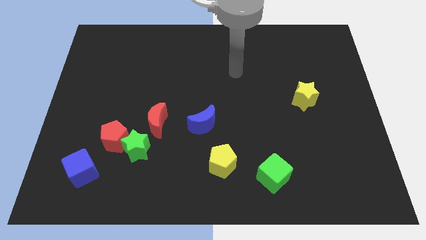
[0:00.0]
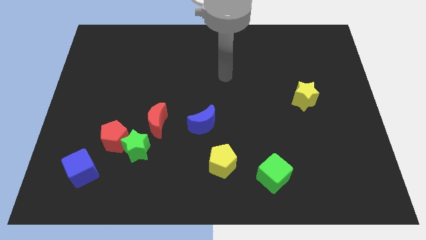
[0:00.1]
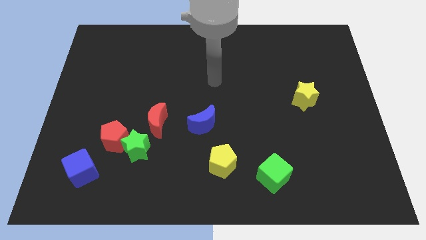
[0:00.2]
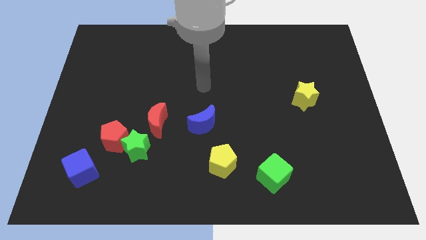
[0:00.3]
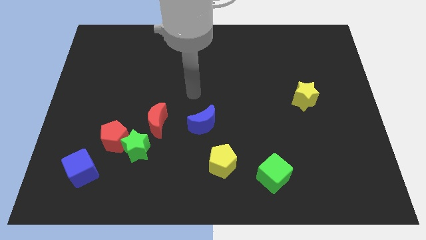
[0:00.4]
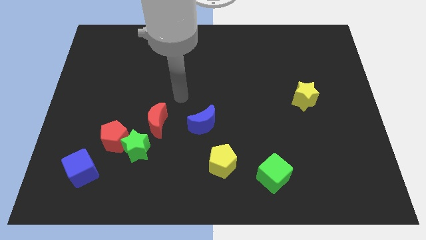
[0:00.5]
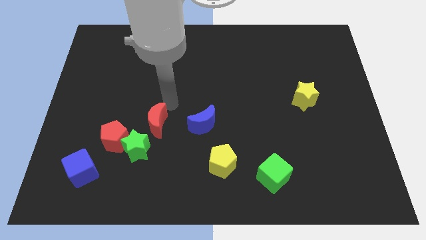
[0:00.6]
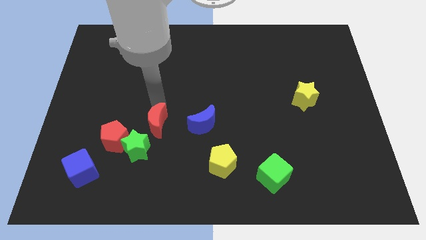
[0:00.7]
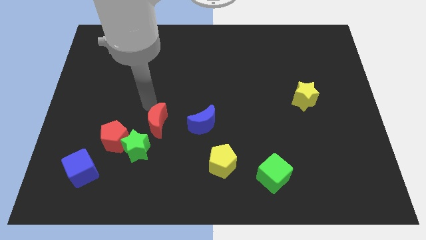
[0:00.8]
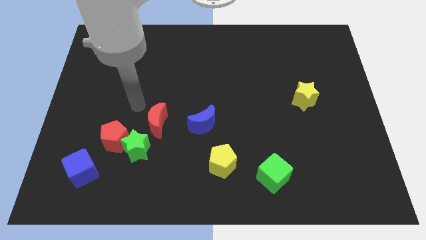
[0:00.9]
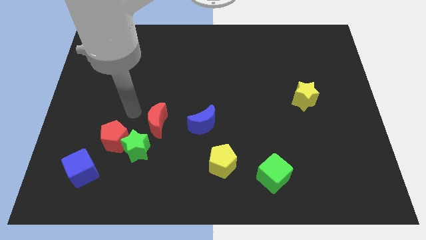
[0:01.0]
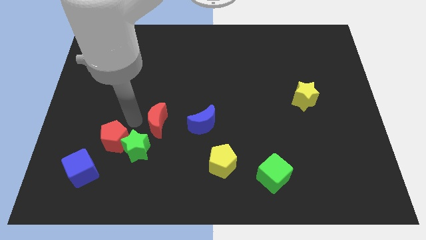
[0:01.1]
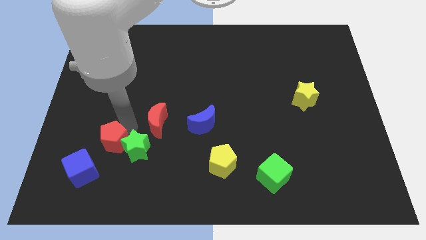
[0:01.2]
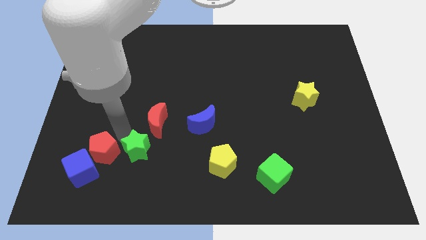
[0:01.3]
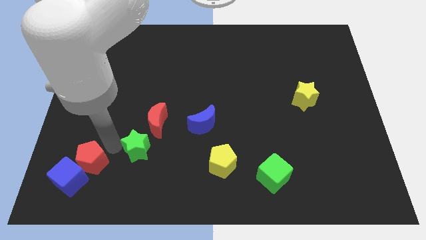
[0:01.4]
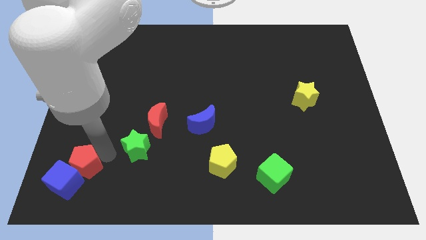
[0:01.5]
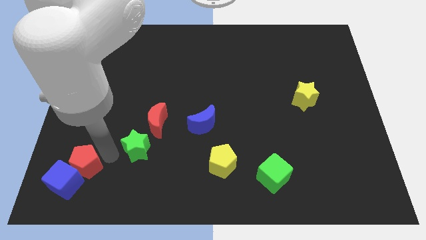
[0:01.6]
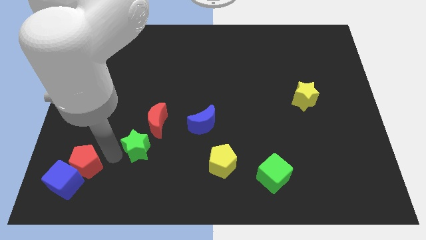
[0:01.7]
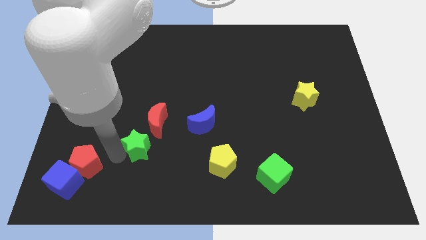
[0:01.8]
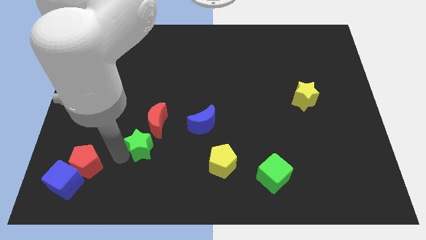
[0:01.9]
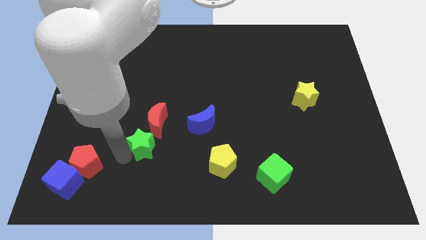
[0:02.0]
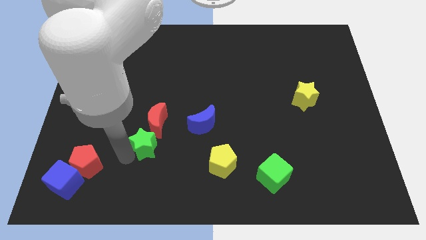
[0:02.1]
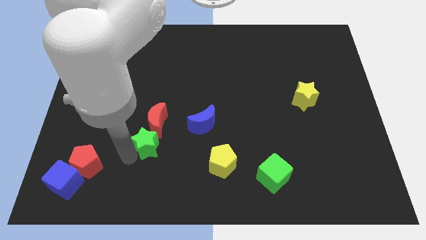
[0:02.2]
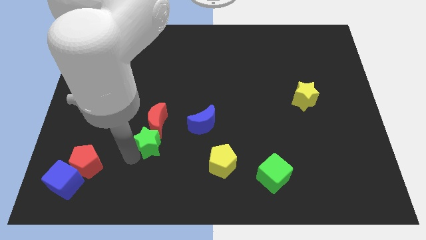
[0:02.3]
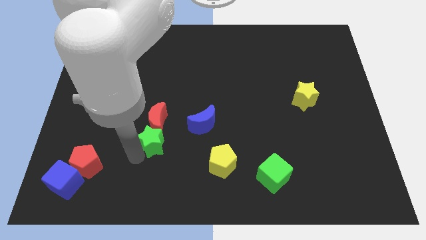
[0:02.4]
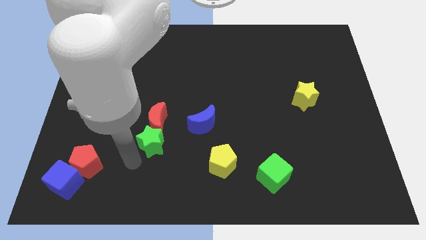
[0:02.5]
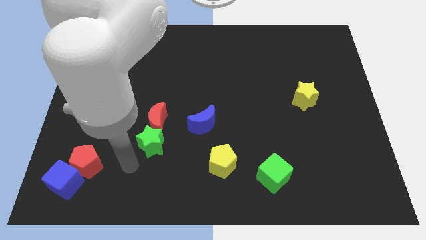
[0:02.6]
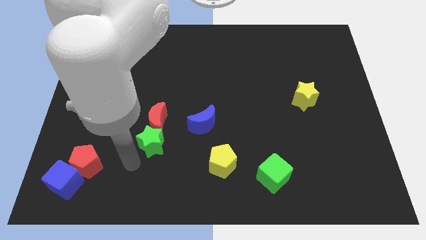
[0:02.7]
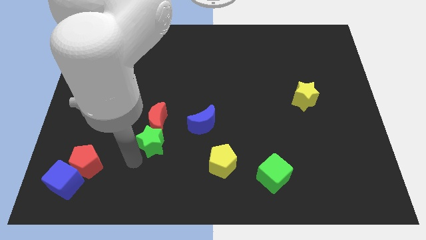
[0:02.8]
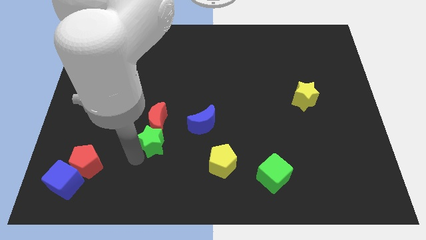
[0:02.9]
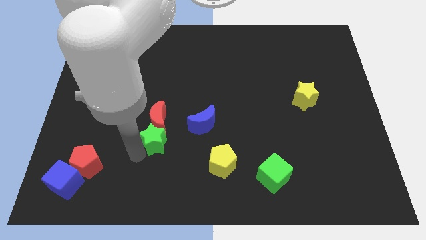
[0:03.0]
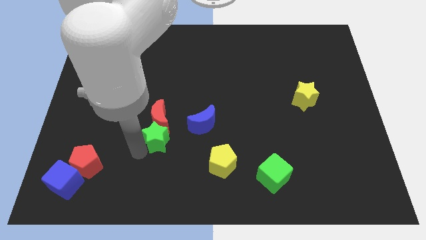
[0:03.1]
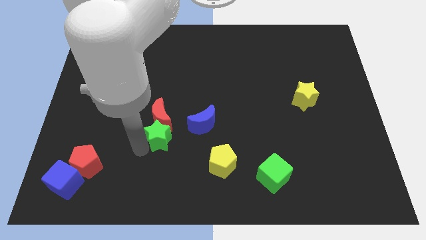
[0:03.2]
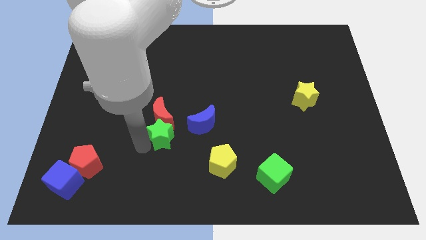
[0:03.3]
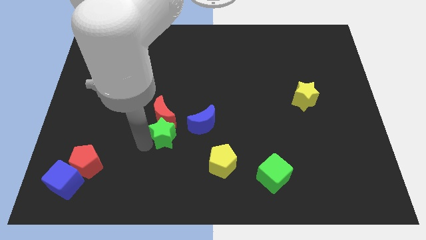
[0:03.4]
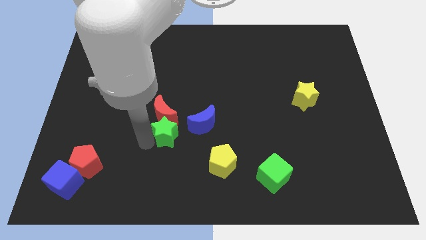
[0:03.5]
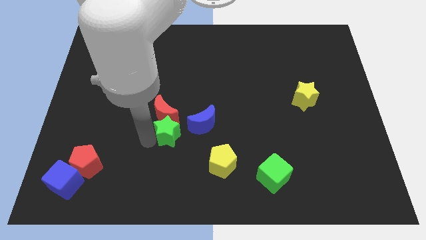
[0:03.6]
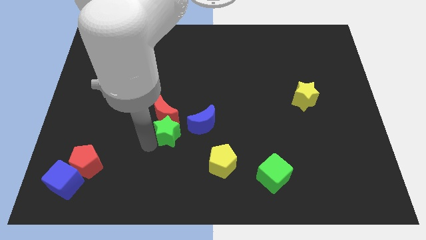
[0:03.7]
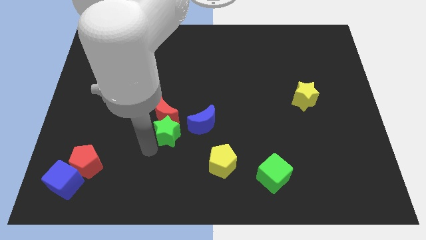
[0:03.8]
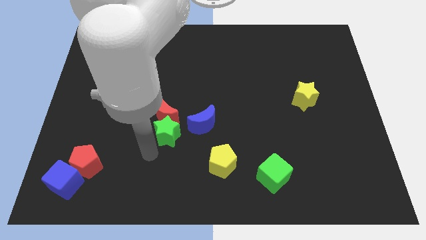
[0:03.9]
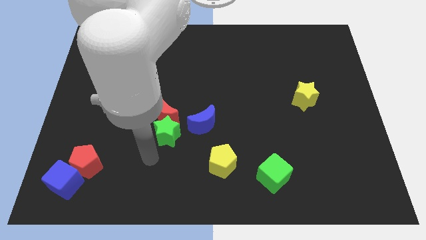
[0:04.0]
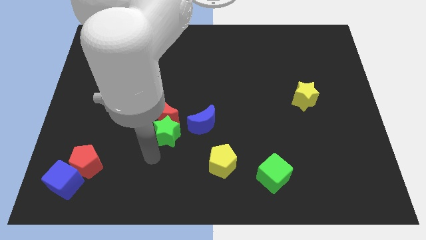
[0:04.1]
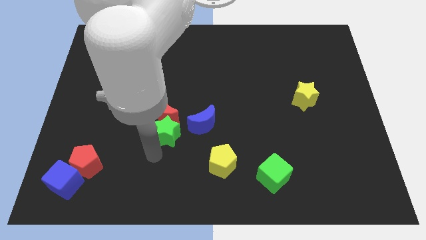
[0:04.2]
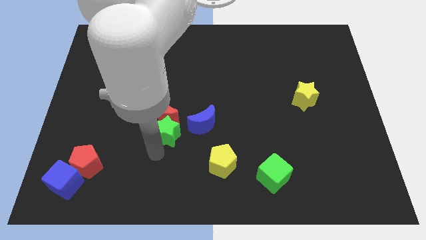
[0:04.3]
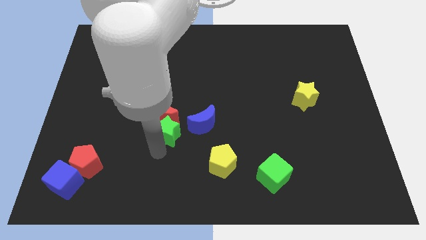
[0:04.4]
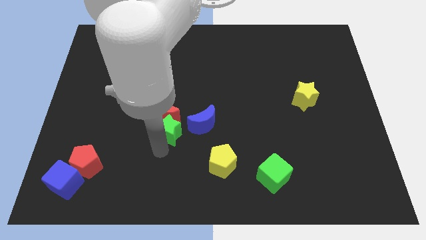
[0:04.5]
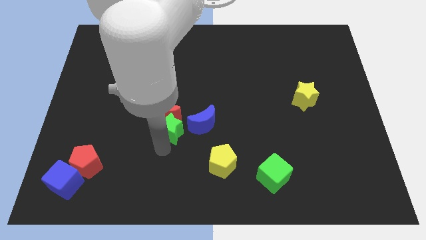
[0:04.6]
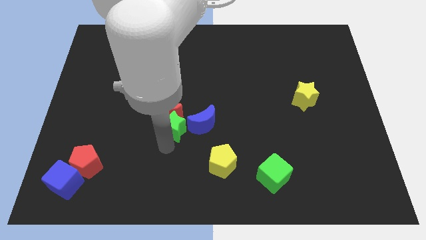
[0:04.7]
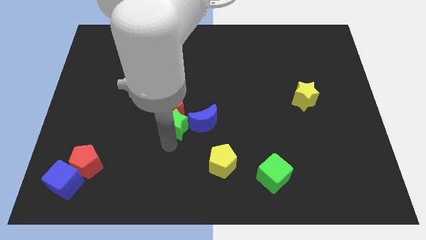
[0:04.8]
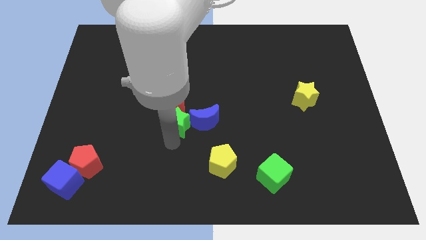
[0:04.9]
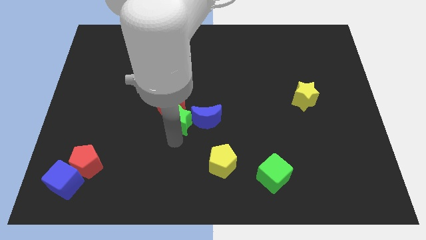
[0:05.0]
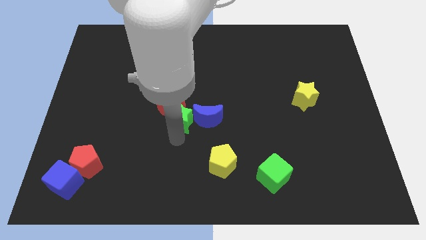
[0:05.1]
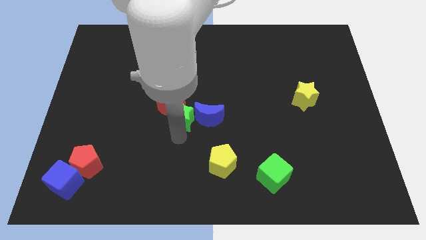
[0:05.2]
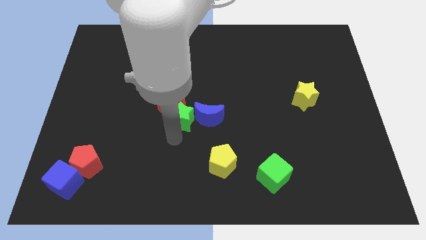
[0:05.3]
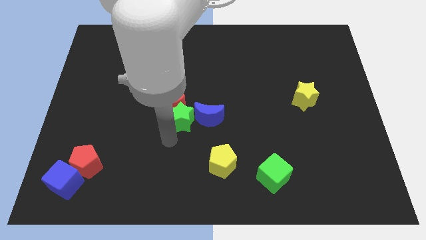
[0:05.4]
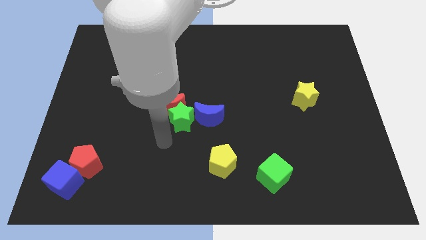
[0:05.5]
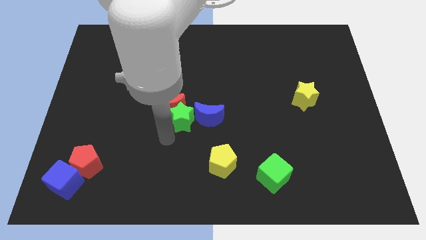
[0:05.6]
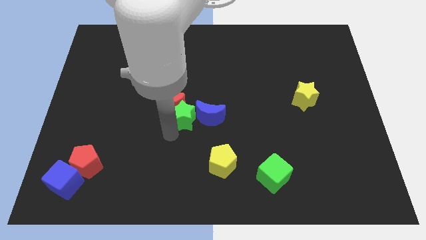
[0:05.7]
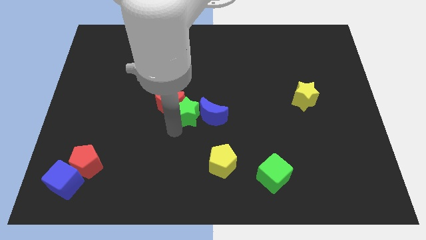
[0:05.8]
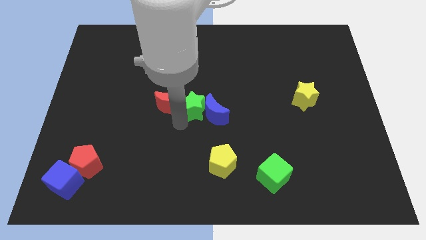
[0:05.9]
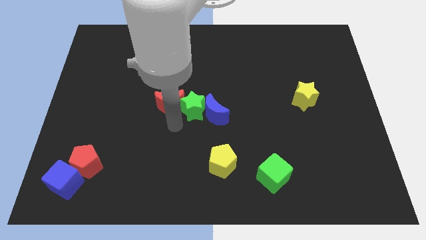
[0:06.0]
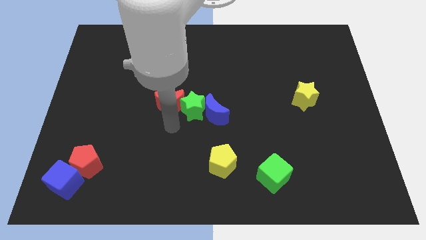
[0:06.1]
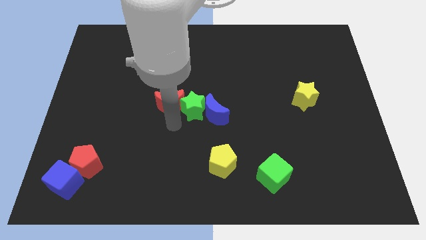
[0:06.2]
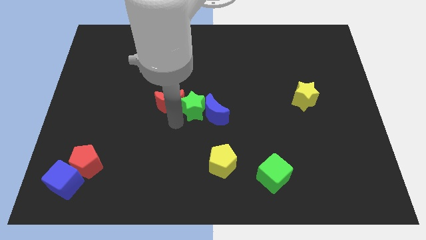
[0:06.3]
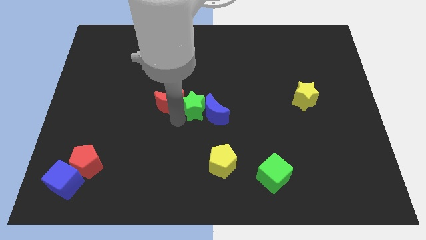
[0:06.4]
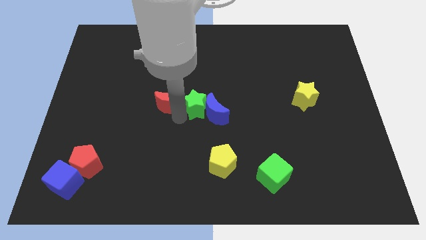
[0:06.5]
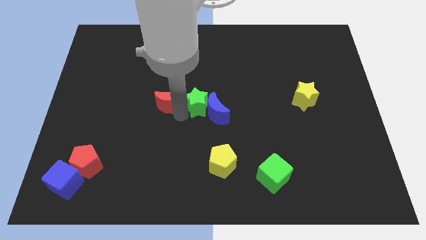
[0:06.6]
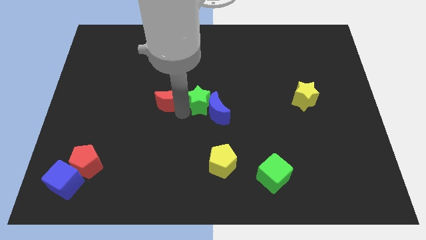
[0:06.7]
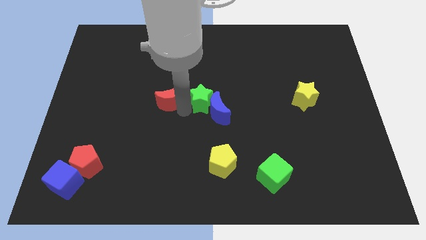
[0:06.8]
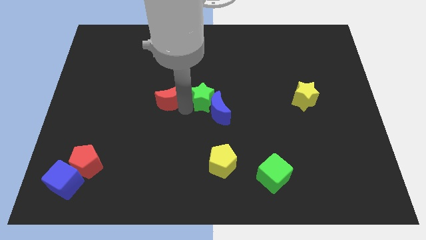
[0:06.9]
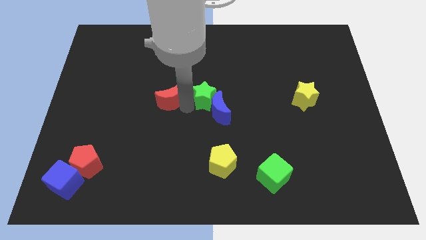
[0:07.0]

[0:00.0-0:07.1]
slide the green star diagonally upwards and to the right

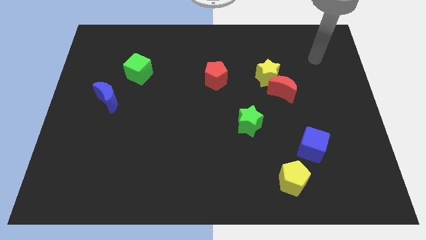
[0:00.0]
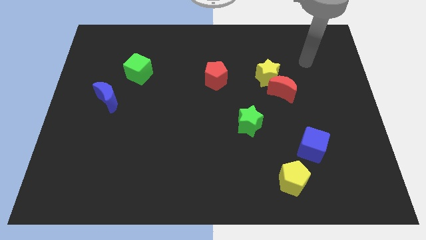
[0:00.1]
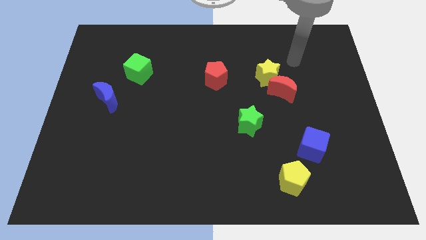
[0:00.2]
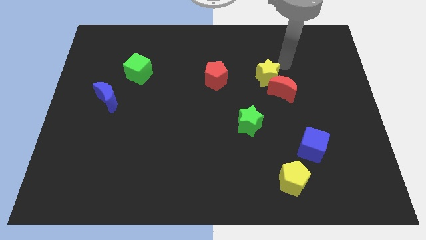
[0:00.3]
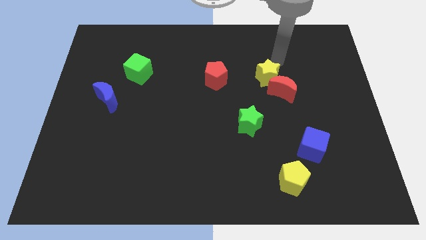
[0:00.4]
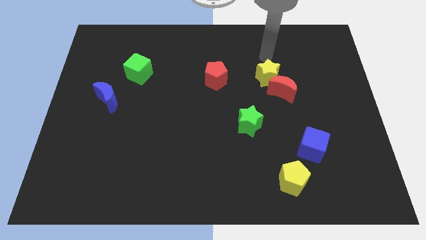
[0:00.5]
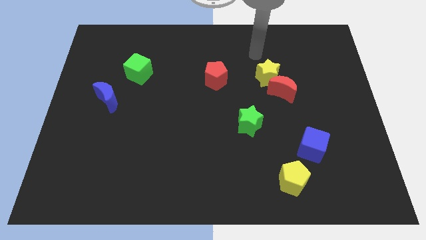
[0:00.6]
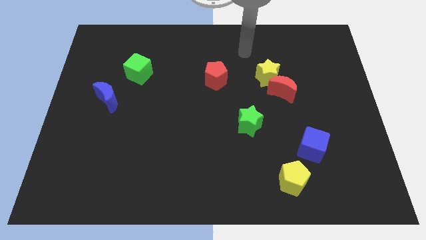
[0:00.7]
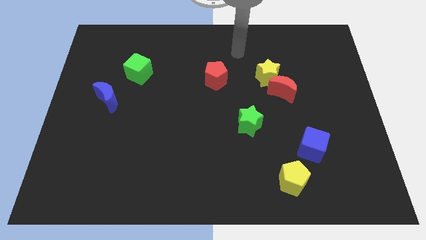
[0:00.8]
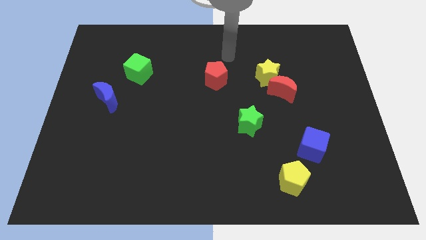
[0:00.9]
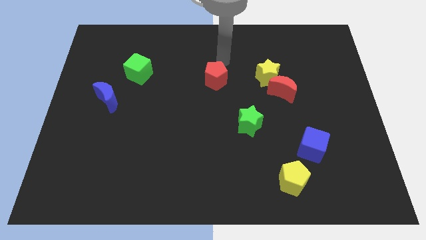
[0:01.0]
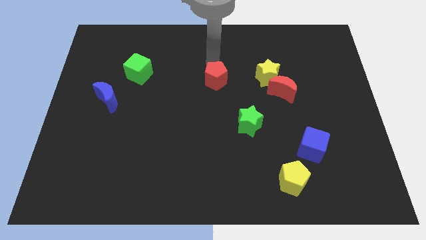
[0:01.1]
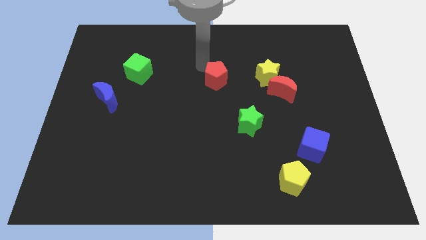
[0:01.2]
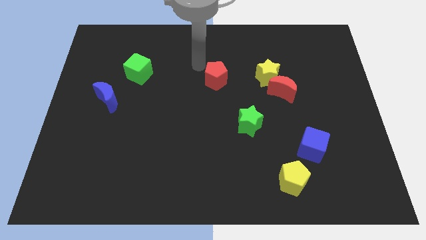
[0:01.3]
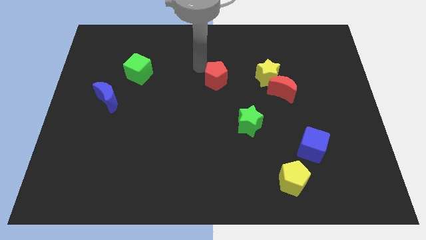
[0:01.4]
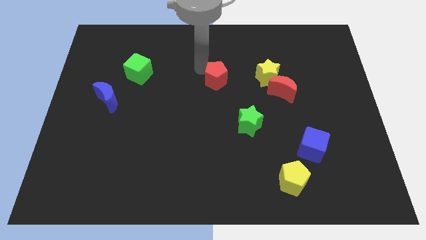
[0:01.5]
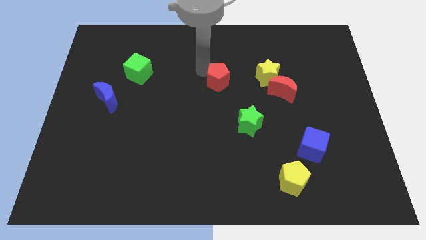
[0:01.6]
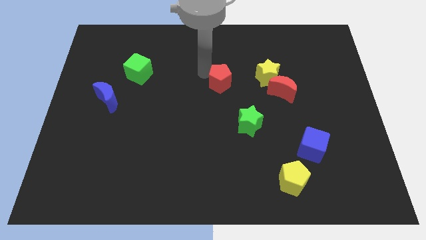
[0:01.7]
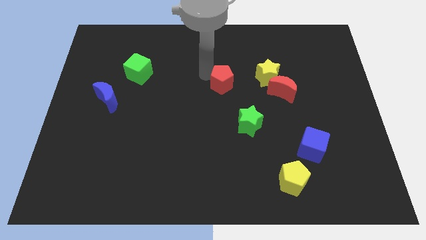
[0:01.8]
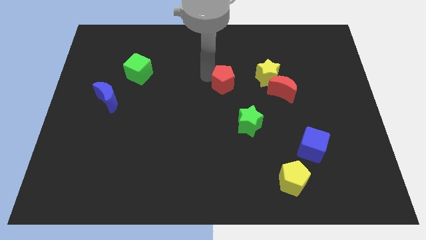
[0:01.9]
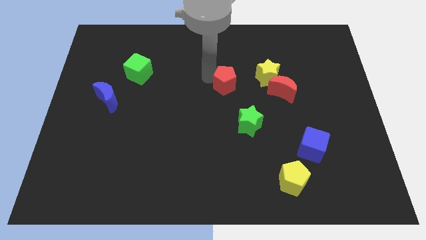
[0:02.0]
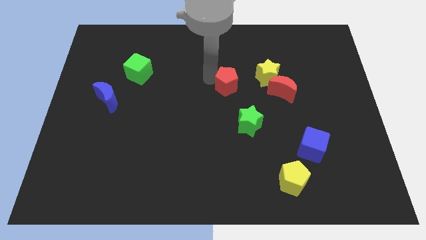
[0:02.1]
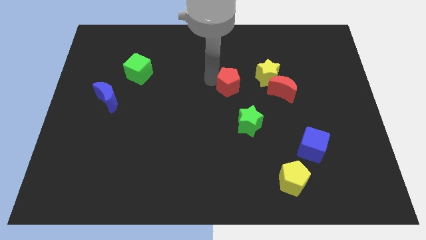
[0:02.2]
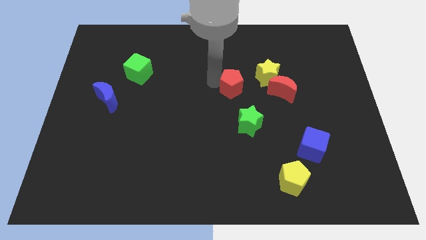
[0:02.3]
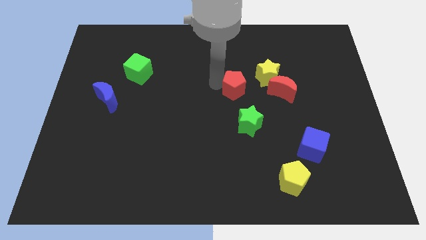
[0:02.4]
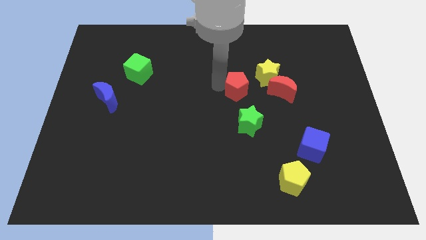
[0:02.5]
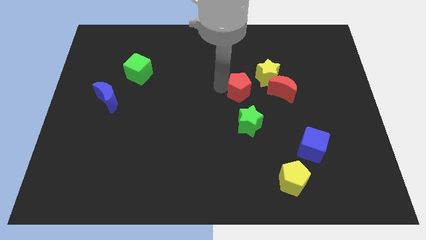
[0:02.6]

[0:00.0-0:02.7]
move the red pentagon downwards and to the right slightly
